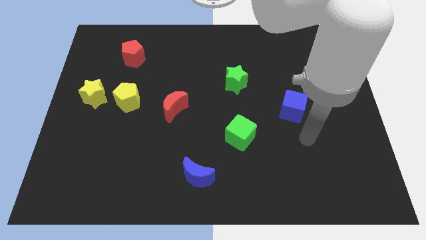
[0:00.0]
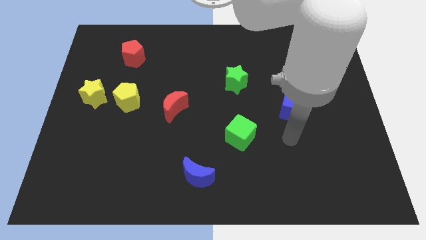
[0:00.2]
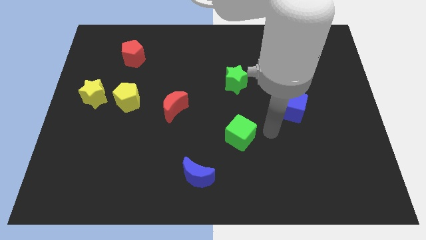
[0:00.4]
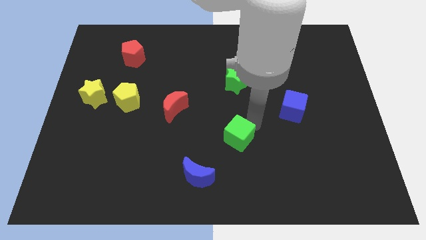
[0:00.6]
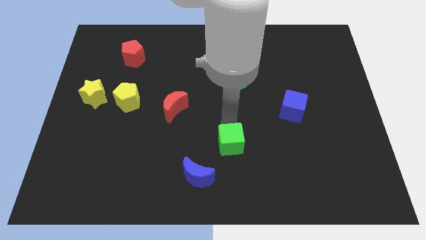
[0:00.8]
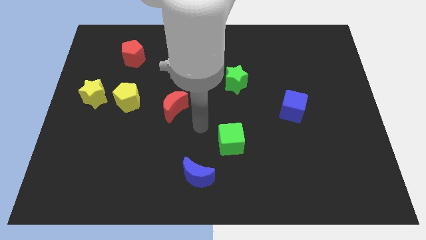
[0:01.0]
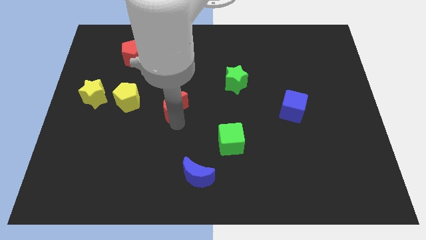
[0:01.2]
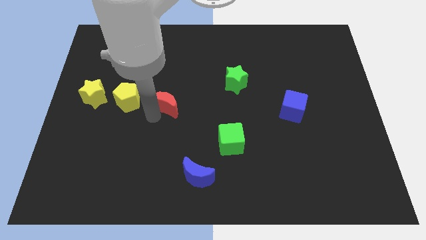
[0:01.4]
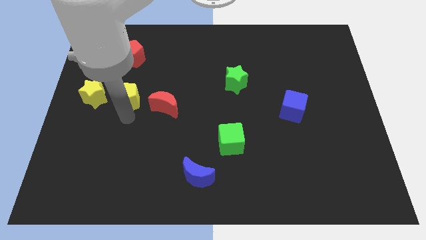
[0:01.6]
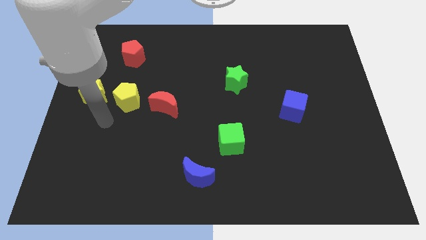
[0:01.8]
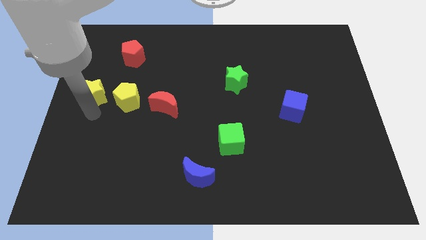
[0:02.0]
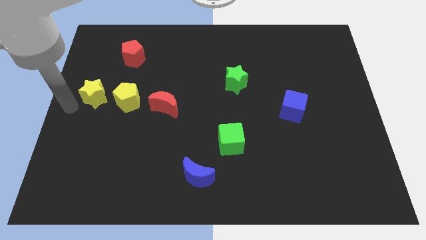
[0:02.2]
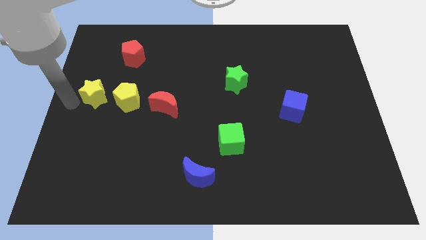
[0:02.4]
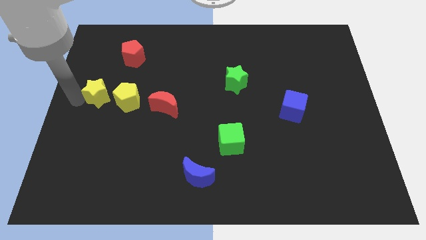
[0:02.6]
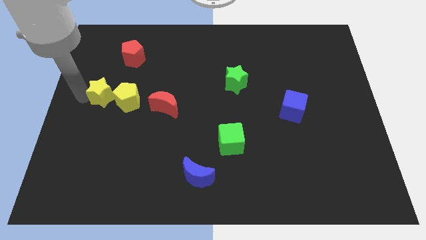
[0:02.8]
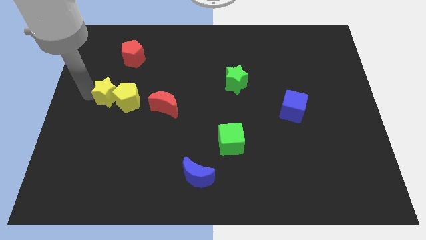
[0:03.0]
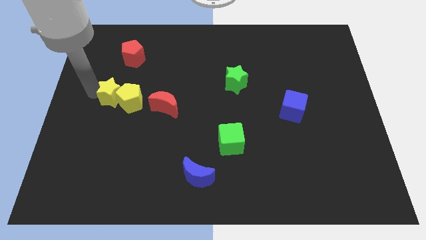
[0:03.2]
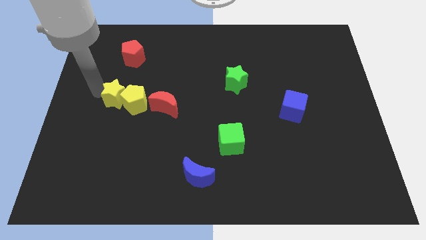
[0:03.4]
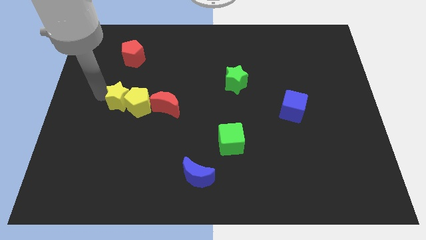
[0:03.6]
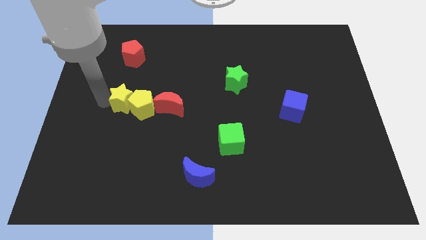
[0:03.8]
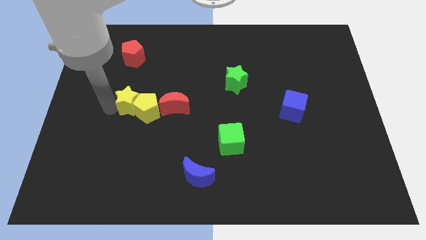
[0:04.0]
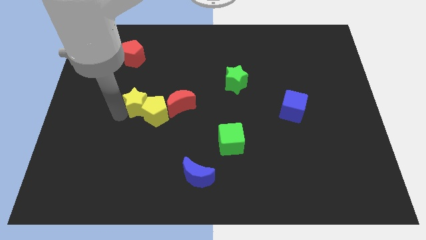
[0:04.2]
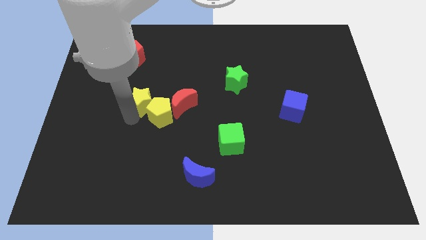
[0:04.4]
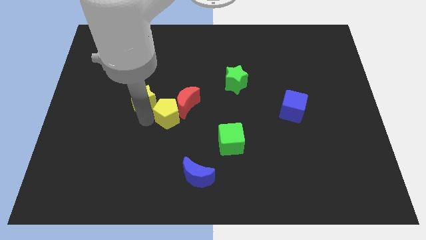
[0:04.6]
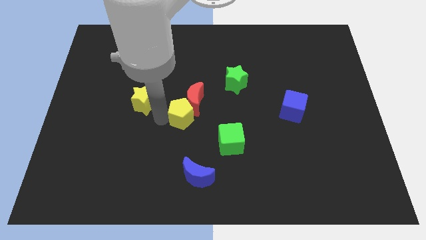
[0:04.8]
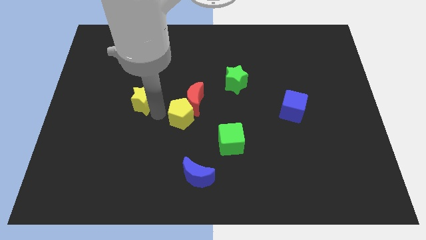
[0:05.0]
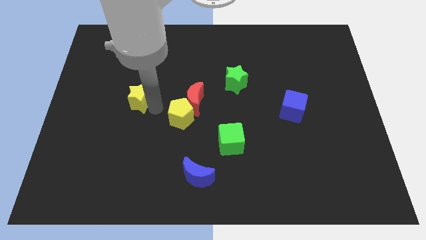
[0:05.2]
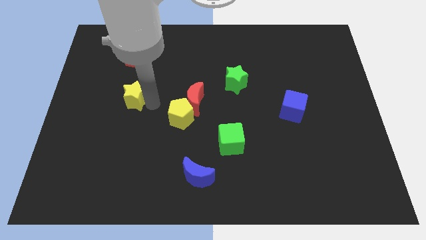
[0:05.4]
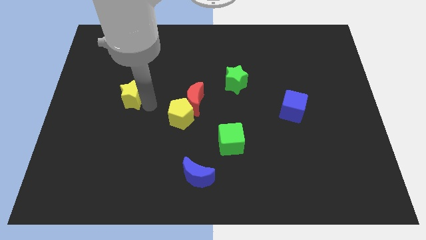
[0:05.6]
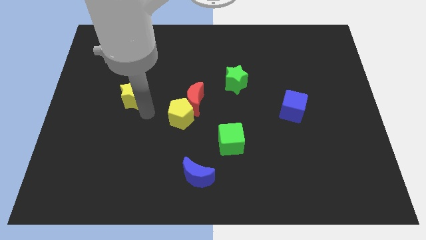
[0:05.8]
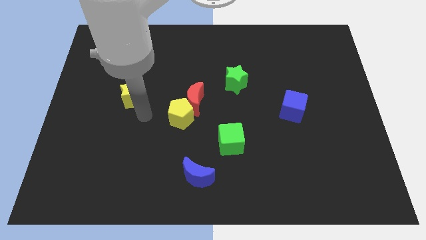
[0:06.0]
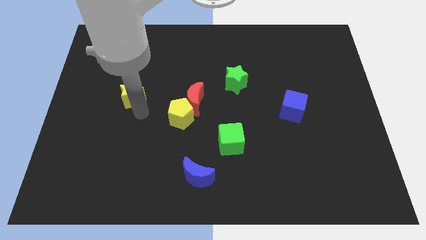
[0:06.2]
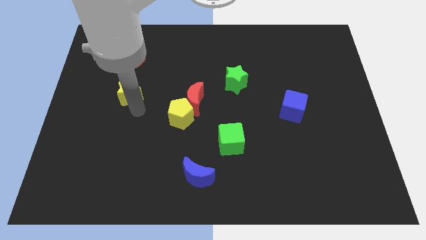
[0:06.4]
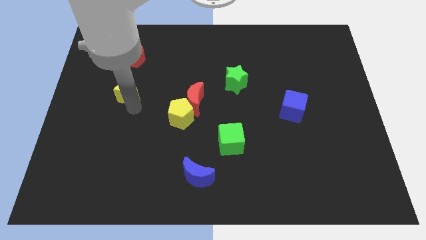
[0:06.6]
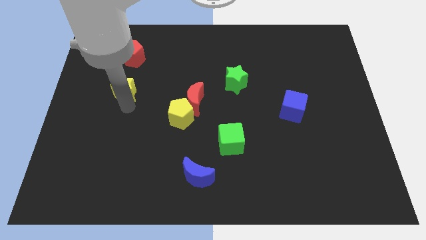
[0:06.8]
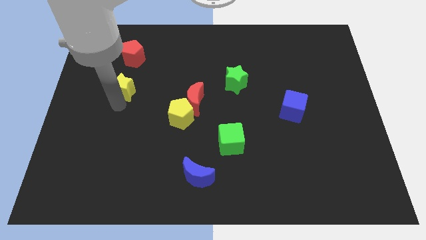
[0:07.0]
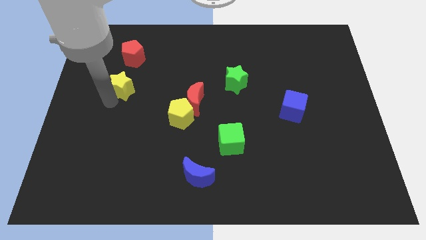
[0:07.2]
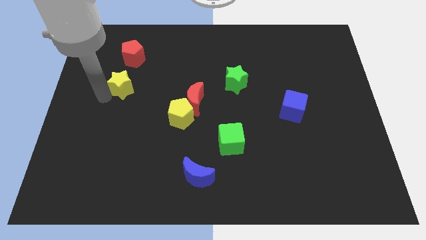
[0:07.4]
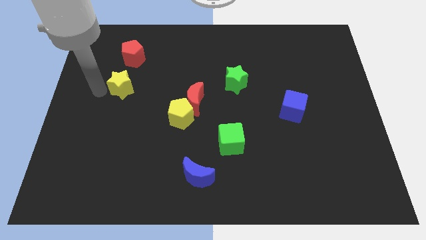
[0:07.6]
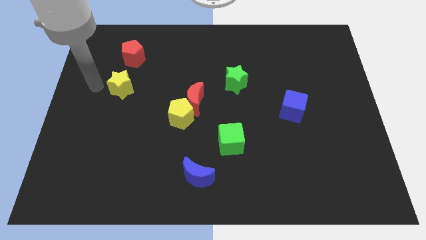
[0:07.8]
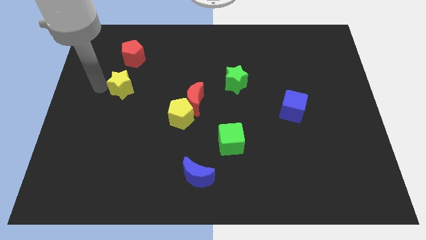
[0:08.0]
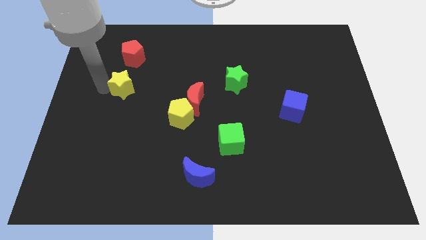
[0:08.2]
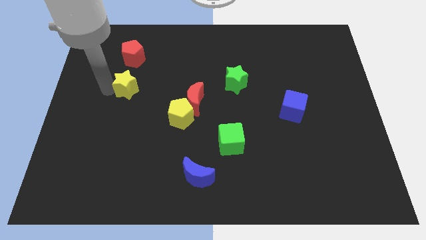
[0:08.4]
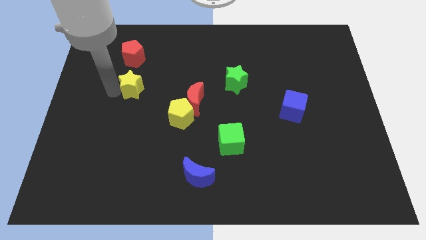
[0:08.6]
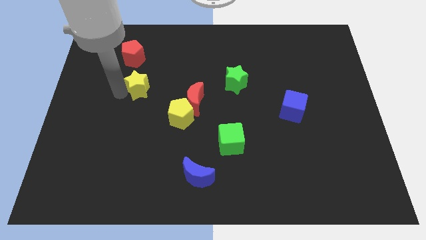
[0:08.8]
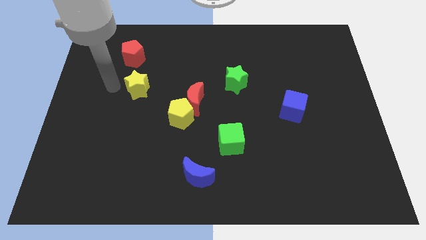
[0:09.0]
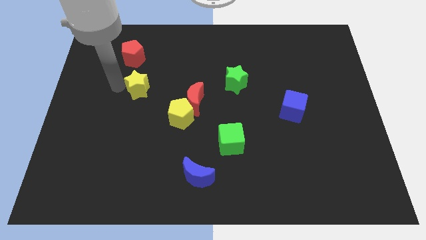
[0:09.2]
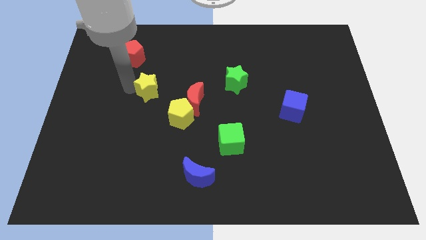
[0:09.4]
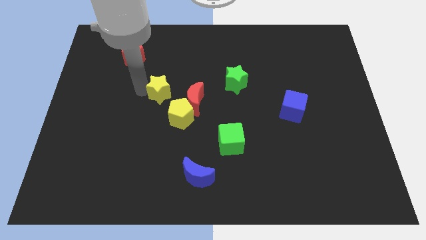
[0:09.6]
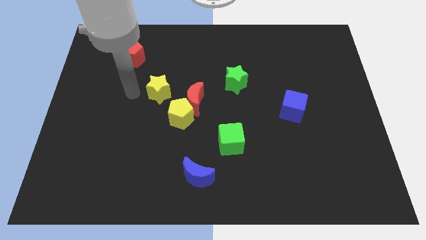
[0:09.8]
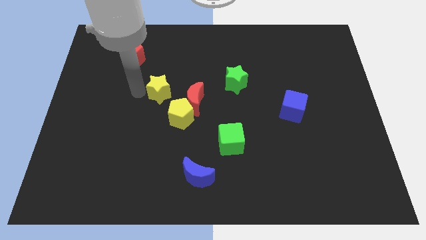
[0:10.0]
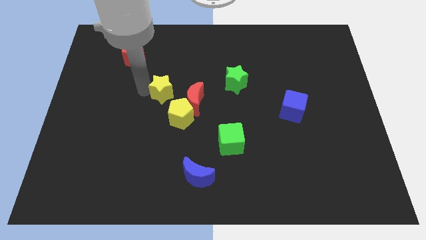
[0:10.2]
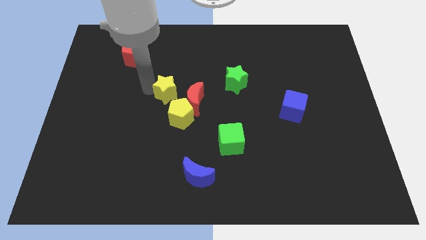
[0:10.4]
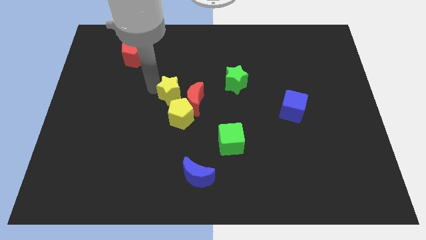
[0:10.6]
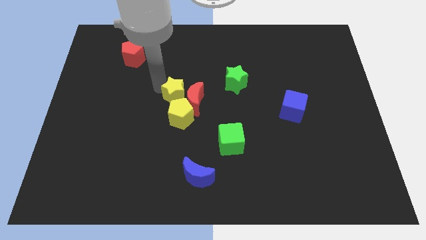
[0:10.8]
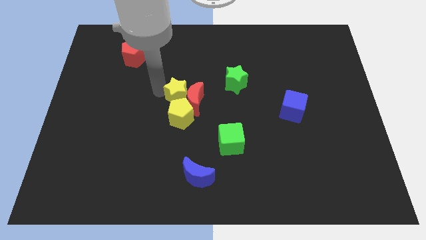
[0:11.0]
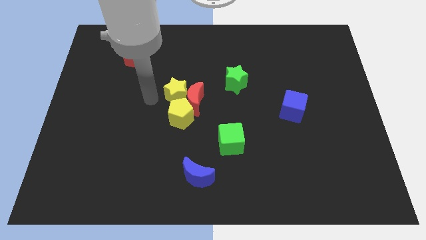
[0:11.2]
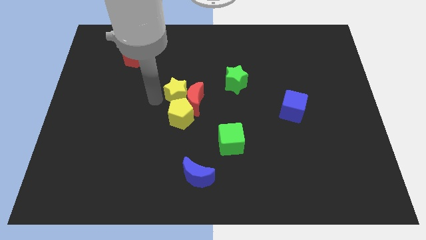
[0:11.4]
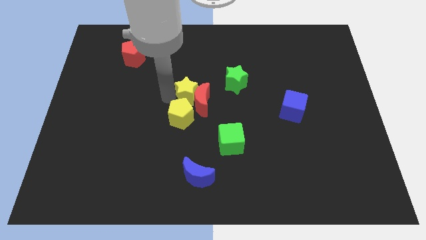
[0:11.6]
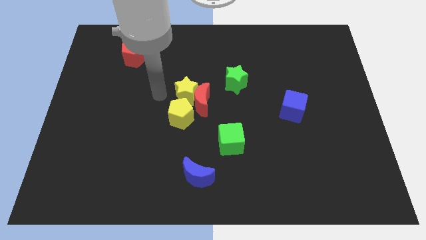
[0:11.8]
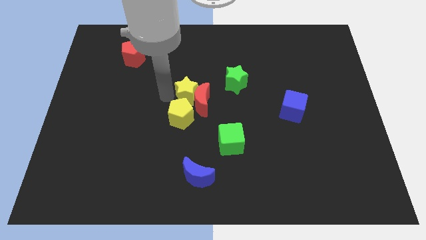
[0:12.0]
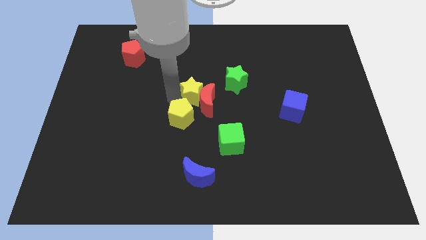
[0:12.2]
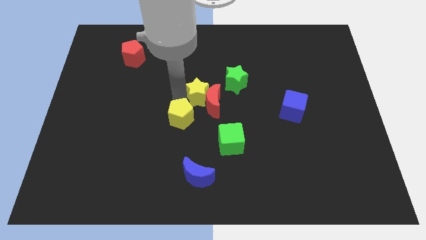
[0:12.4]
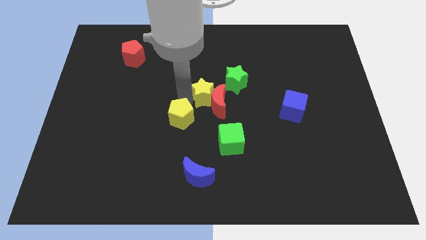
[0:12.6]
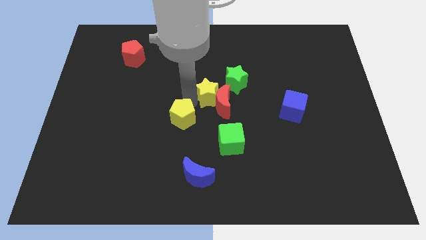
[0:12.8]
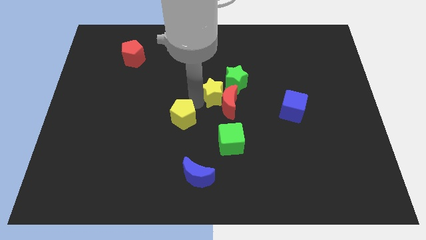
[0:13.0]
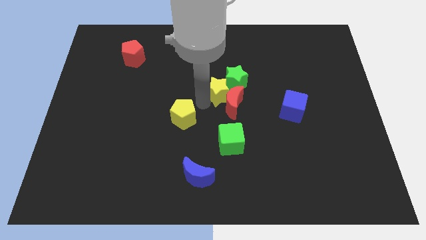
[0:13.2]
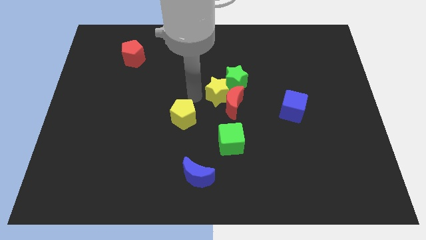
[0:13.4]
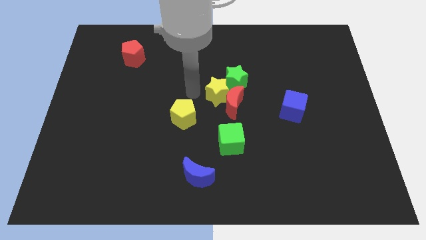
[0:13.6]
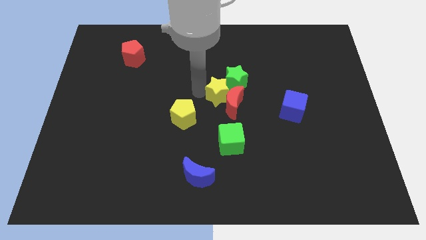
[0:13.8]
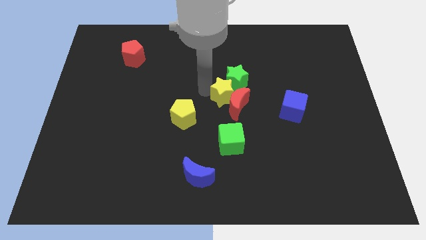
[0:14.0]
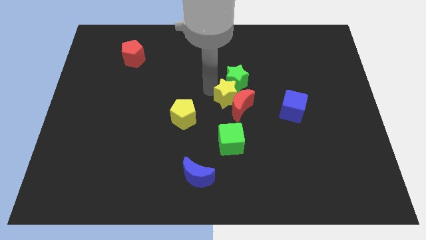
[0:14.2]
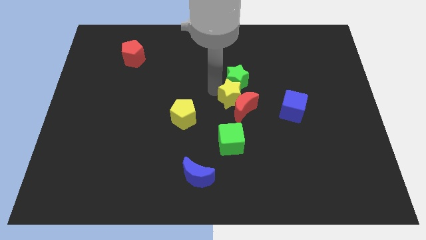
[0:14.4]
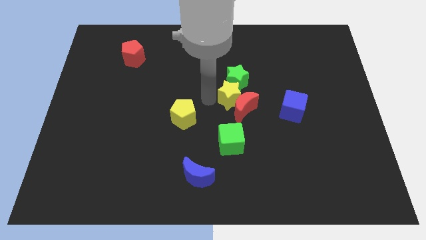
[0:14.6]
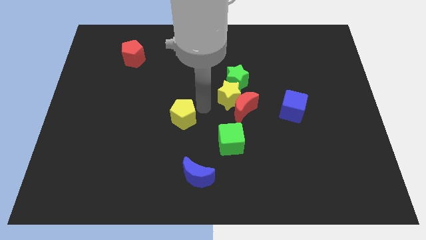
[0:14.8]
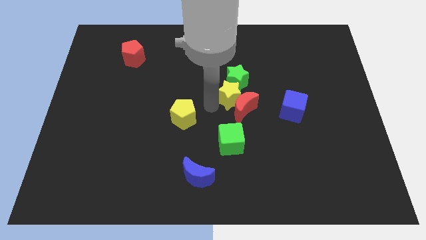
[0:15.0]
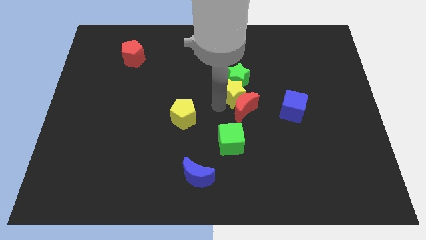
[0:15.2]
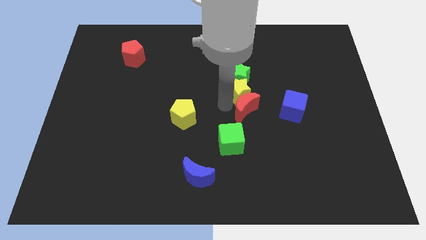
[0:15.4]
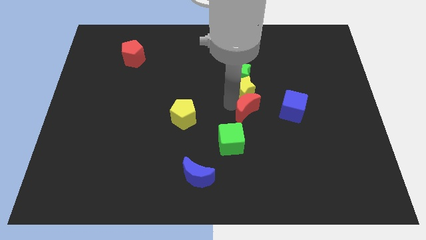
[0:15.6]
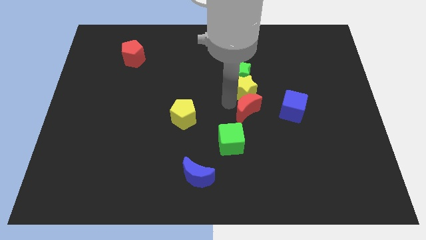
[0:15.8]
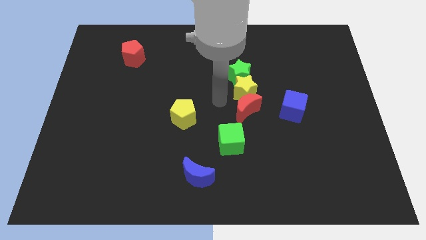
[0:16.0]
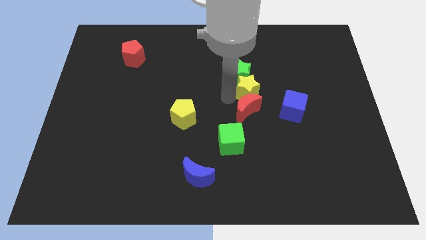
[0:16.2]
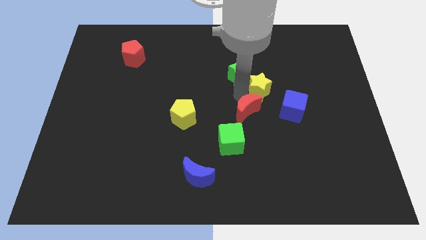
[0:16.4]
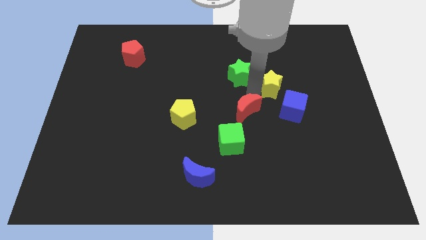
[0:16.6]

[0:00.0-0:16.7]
put the yellow star to the top of the blue cube
